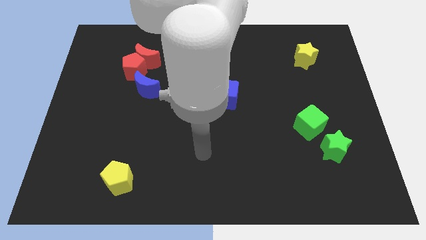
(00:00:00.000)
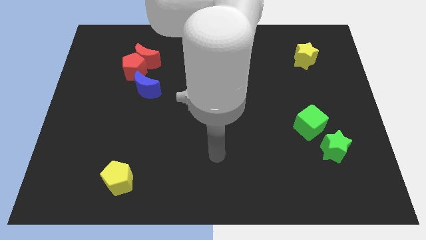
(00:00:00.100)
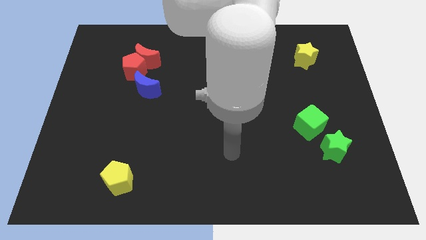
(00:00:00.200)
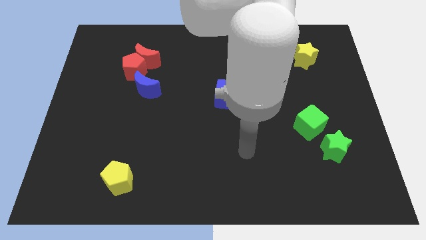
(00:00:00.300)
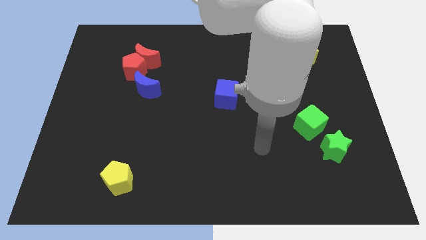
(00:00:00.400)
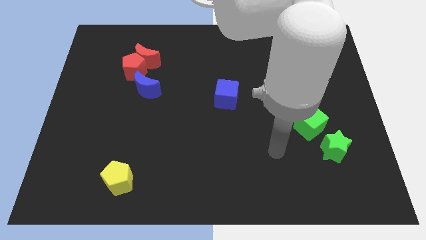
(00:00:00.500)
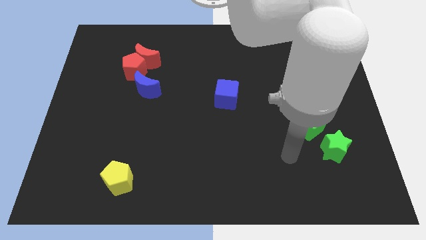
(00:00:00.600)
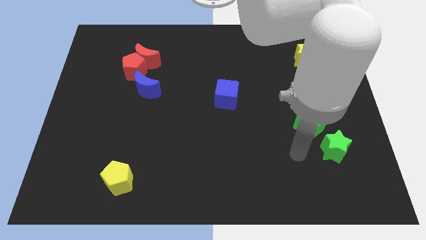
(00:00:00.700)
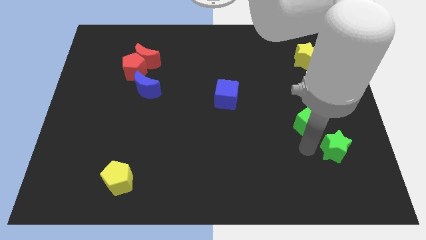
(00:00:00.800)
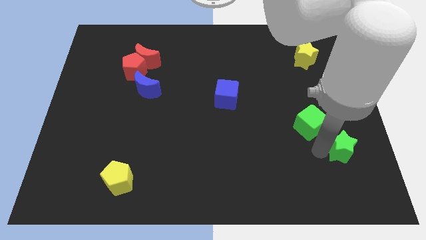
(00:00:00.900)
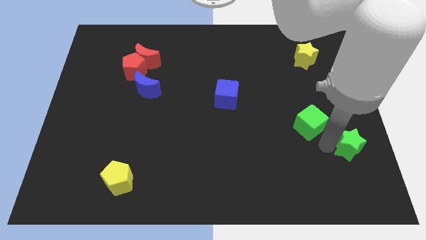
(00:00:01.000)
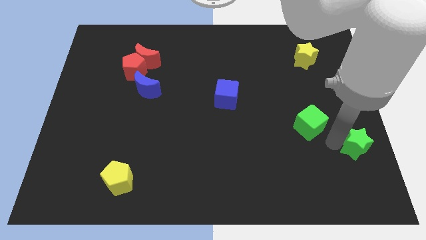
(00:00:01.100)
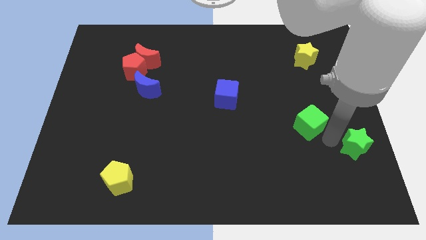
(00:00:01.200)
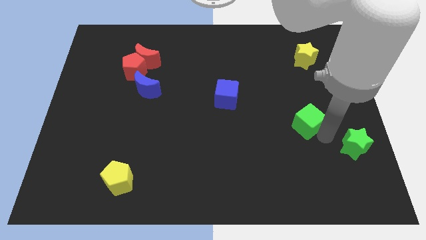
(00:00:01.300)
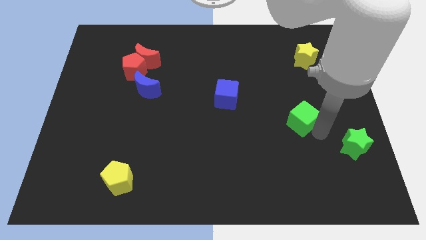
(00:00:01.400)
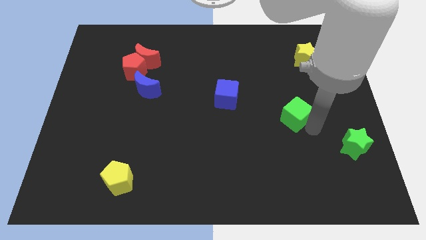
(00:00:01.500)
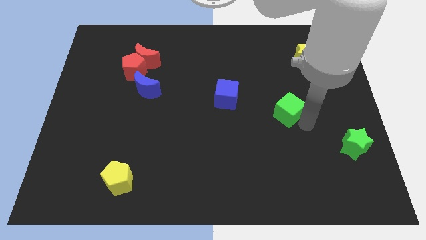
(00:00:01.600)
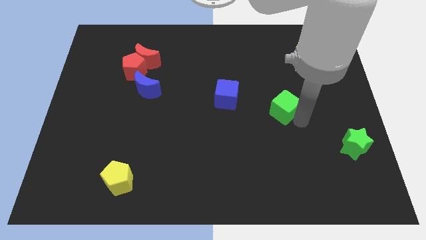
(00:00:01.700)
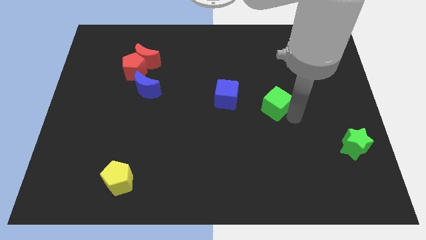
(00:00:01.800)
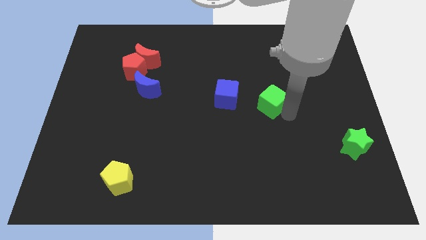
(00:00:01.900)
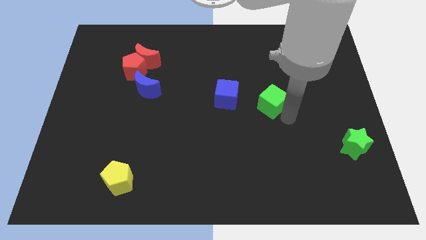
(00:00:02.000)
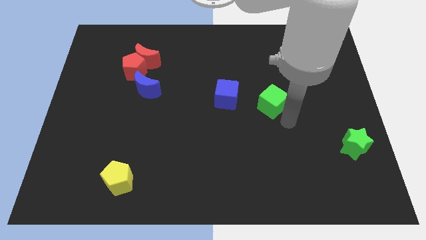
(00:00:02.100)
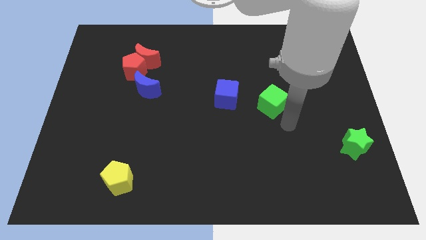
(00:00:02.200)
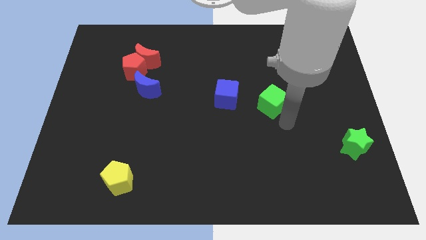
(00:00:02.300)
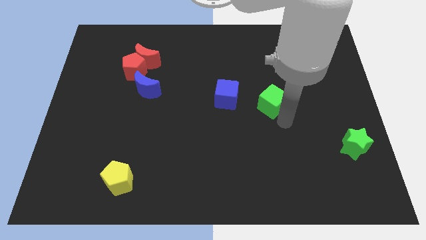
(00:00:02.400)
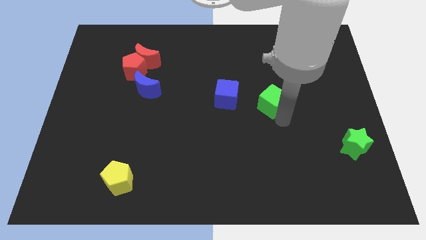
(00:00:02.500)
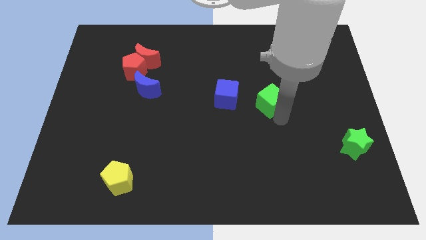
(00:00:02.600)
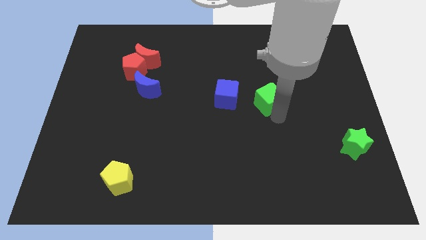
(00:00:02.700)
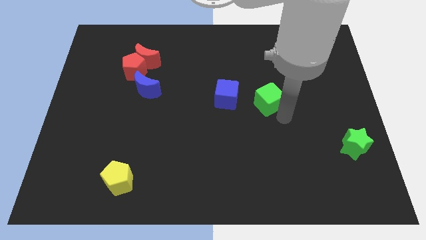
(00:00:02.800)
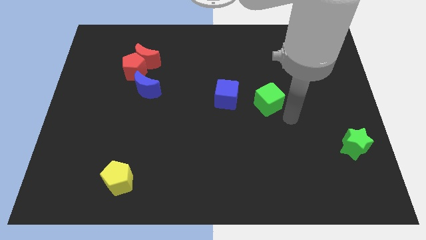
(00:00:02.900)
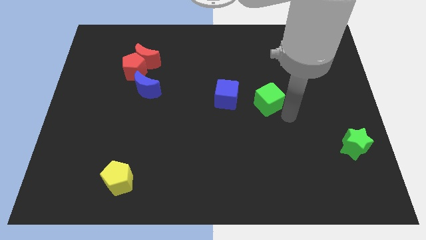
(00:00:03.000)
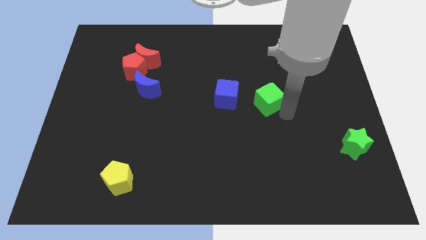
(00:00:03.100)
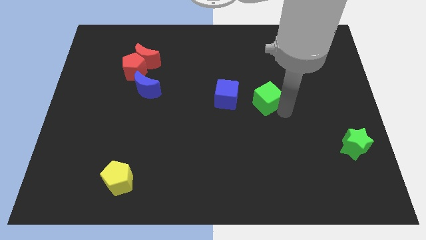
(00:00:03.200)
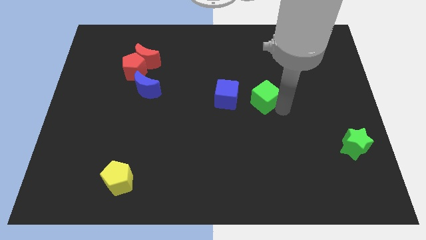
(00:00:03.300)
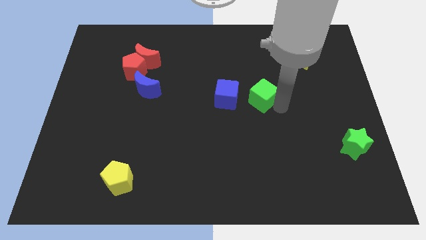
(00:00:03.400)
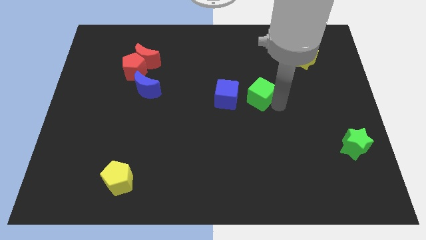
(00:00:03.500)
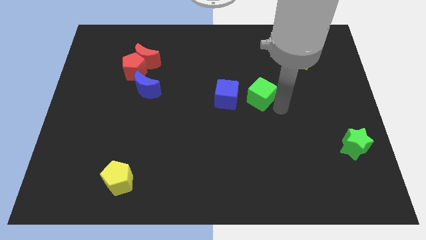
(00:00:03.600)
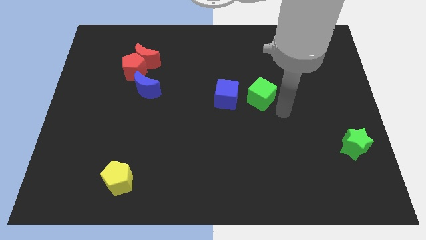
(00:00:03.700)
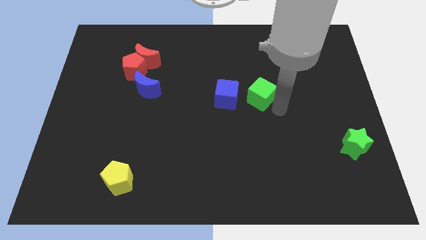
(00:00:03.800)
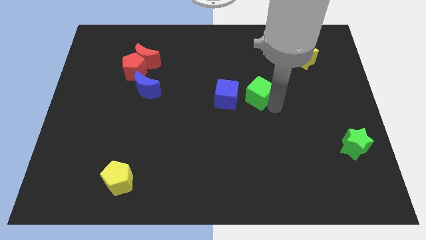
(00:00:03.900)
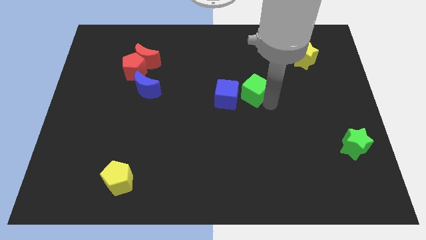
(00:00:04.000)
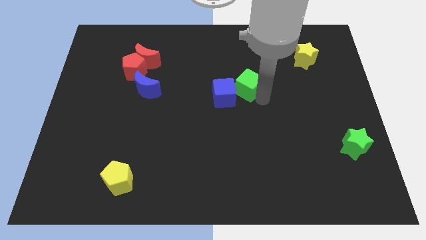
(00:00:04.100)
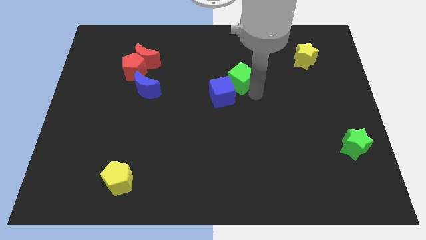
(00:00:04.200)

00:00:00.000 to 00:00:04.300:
move the green cube diagonally upwards and left

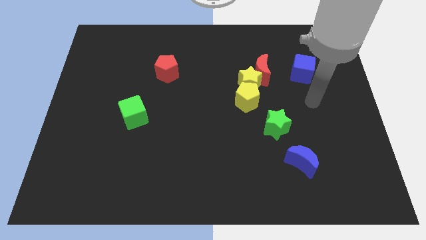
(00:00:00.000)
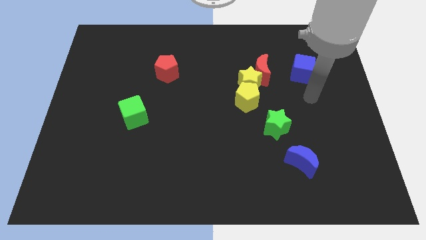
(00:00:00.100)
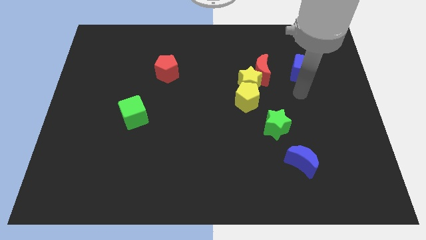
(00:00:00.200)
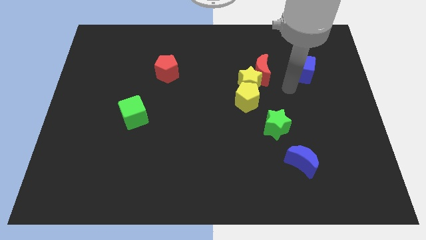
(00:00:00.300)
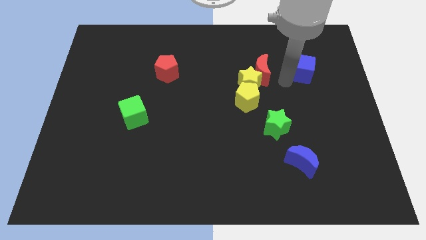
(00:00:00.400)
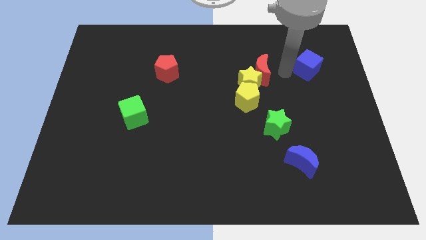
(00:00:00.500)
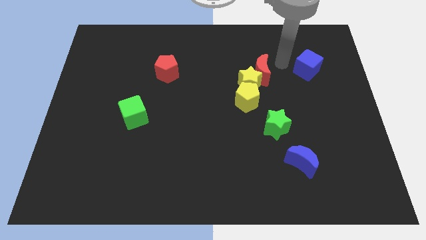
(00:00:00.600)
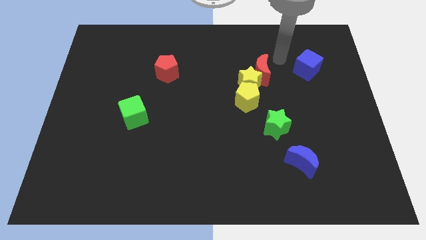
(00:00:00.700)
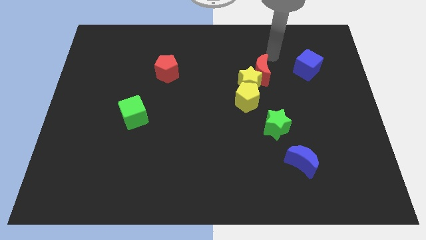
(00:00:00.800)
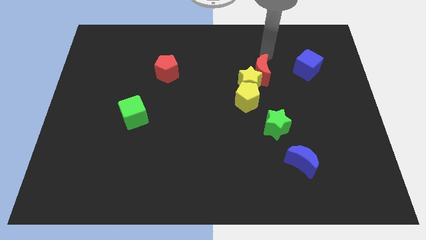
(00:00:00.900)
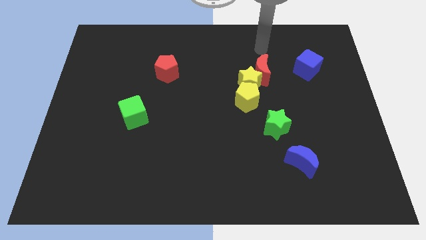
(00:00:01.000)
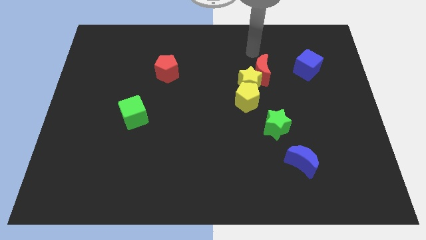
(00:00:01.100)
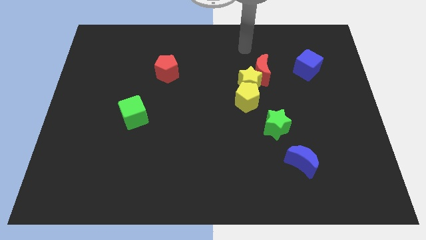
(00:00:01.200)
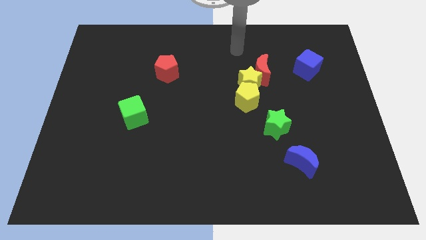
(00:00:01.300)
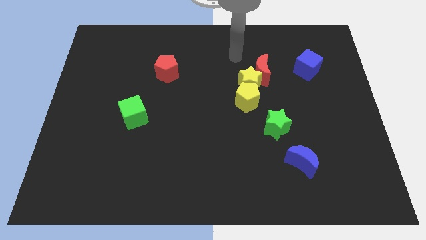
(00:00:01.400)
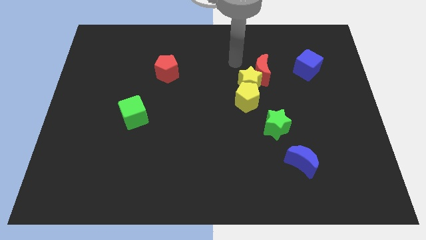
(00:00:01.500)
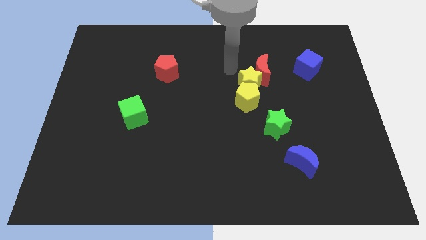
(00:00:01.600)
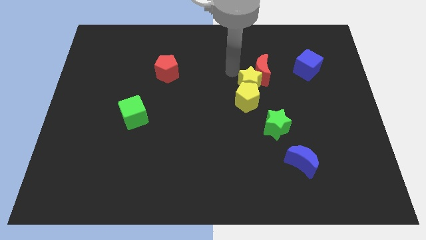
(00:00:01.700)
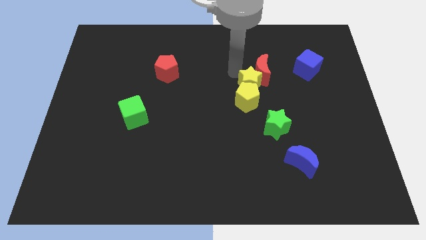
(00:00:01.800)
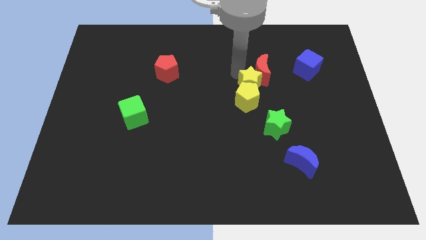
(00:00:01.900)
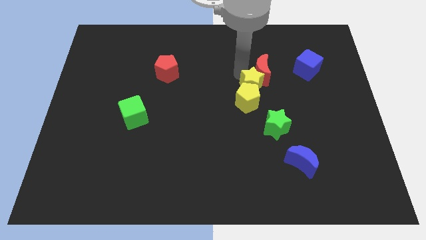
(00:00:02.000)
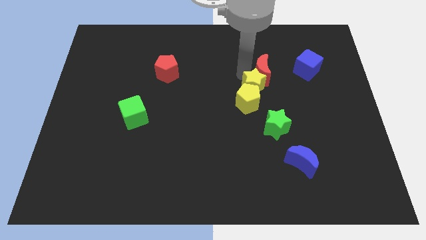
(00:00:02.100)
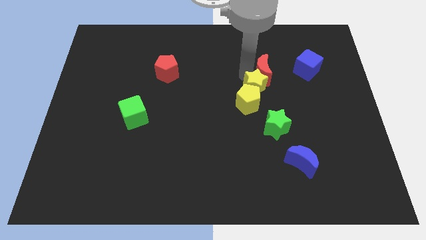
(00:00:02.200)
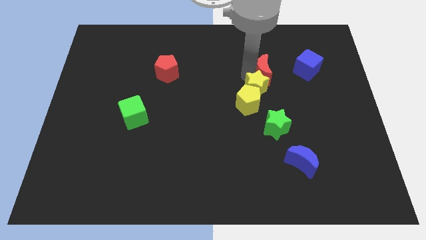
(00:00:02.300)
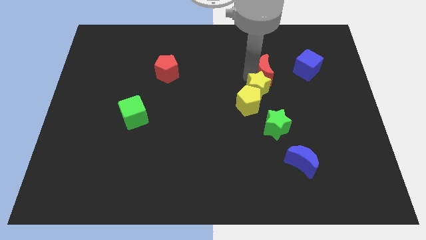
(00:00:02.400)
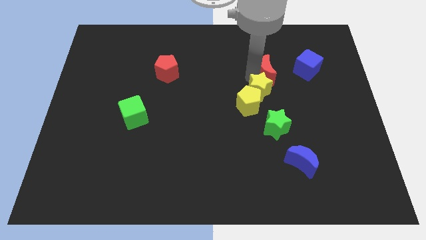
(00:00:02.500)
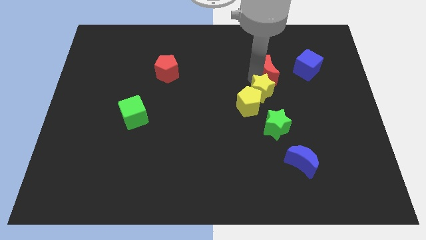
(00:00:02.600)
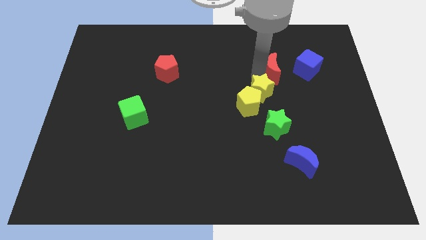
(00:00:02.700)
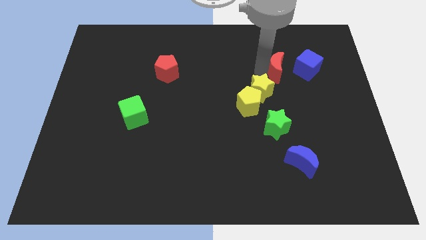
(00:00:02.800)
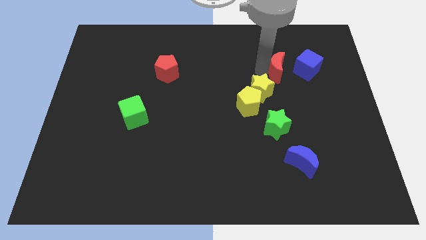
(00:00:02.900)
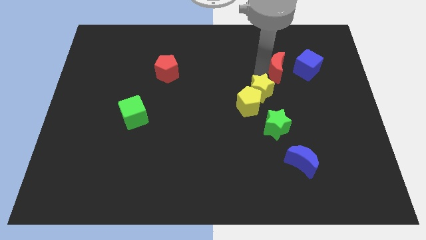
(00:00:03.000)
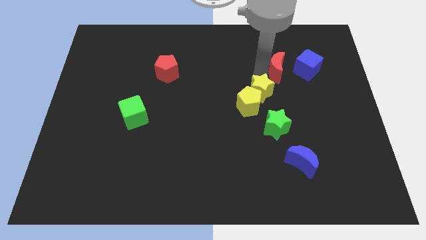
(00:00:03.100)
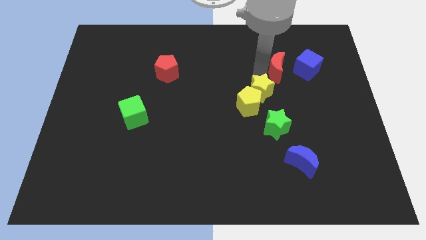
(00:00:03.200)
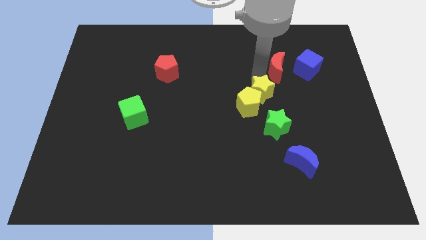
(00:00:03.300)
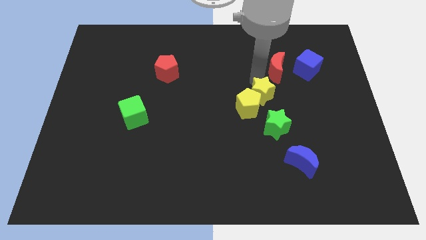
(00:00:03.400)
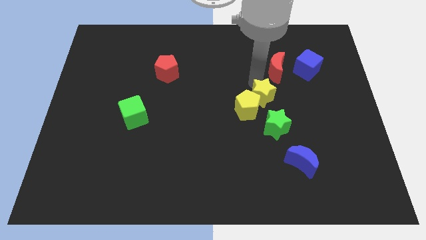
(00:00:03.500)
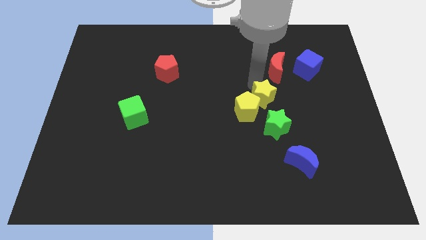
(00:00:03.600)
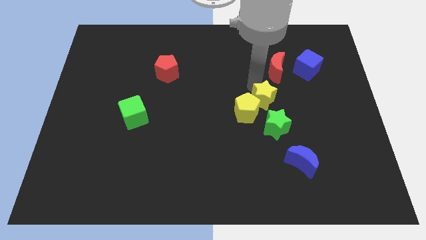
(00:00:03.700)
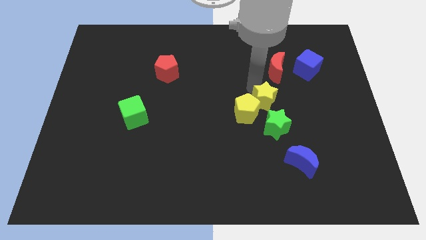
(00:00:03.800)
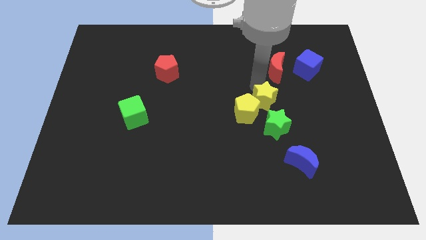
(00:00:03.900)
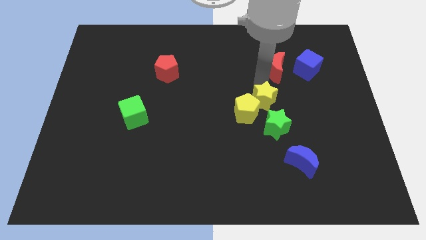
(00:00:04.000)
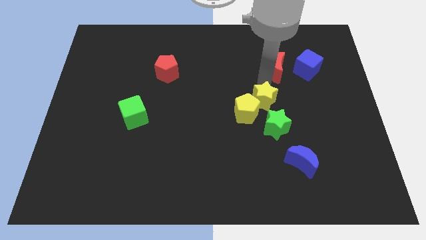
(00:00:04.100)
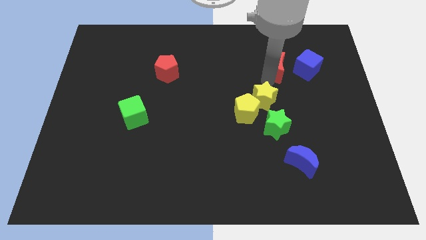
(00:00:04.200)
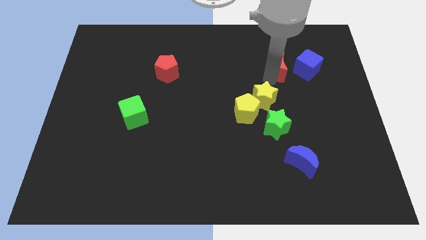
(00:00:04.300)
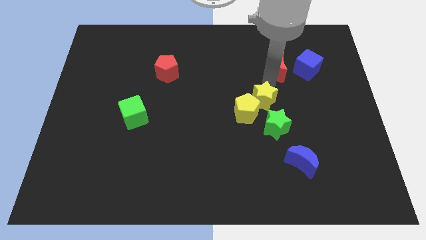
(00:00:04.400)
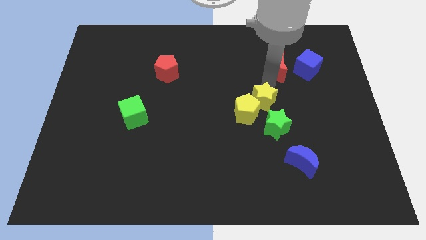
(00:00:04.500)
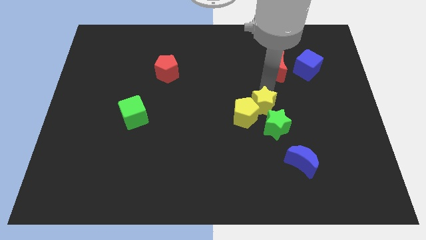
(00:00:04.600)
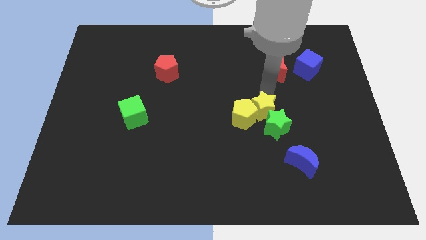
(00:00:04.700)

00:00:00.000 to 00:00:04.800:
push the yellow star down slightly
